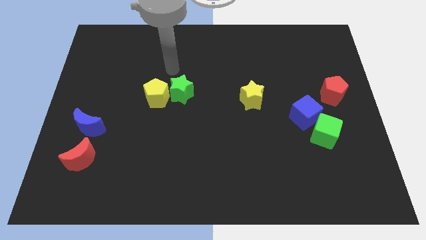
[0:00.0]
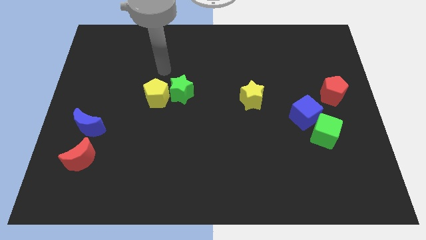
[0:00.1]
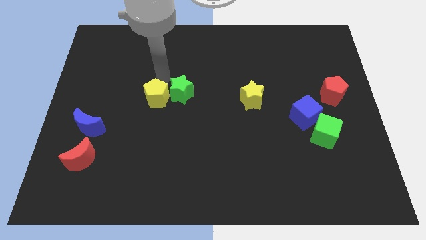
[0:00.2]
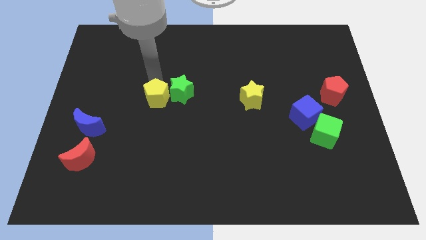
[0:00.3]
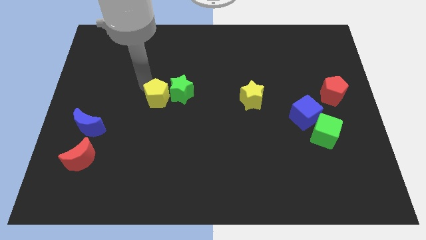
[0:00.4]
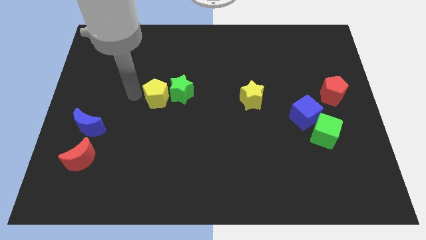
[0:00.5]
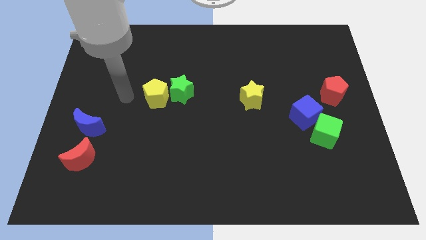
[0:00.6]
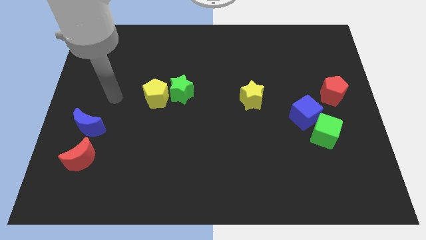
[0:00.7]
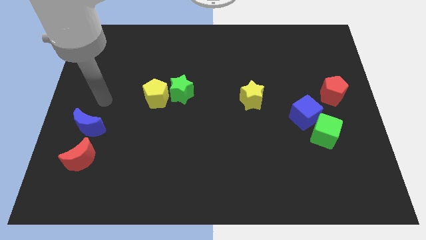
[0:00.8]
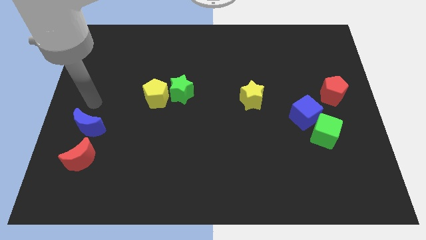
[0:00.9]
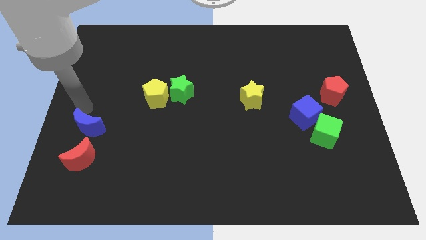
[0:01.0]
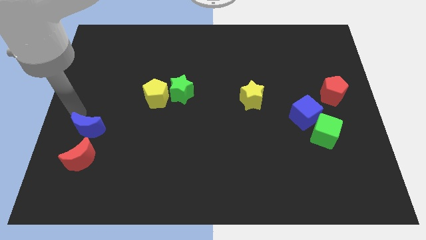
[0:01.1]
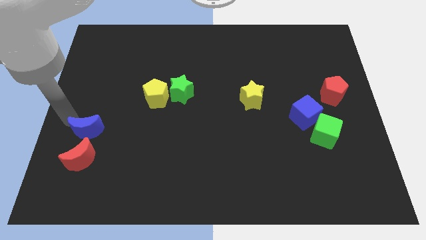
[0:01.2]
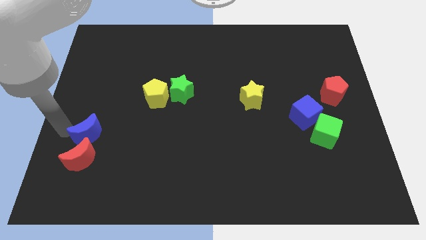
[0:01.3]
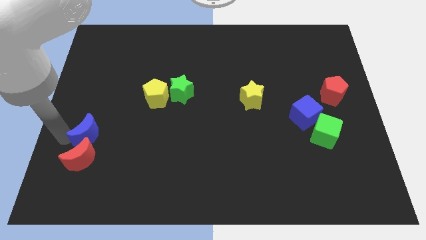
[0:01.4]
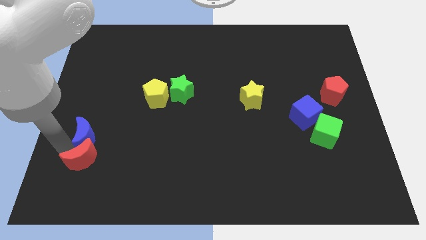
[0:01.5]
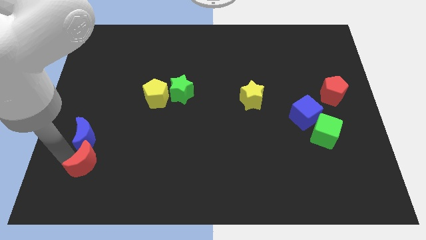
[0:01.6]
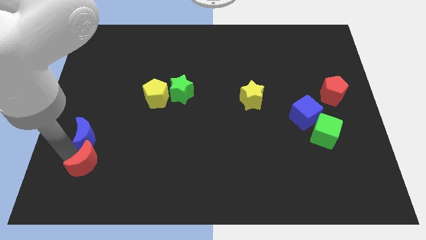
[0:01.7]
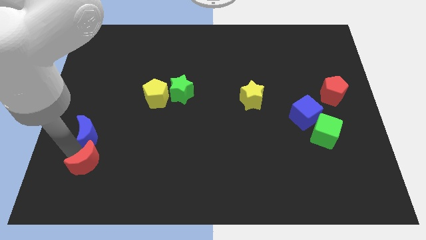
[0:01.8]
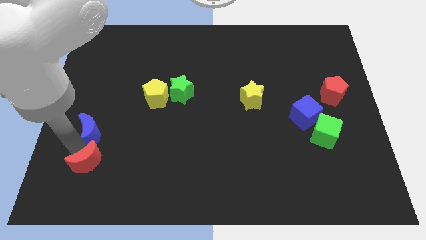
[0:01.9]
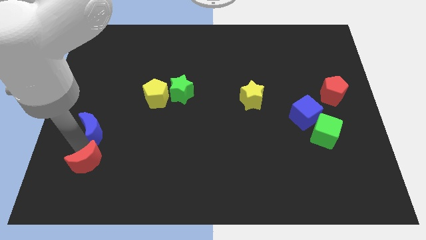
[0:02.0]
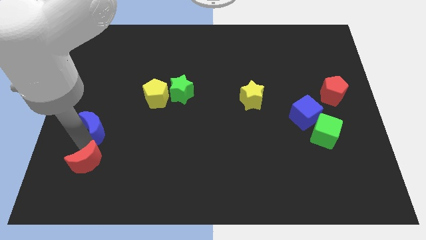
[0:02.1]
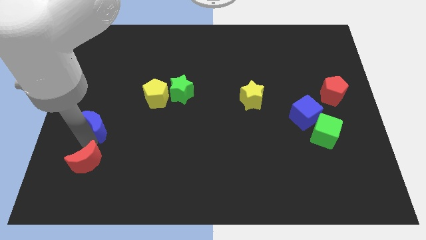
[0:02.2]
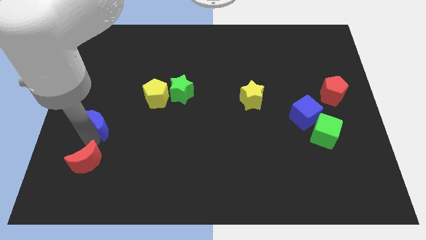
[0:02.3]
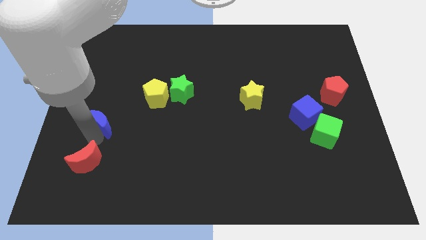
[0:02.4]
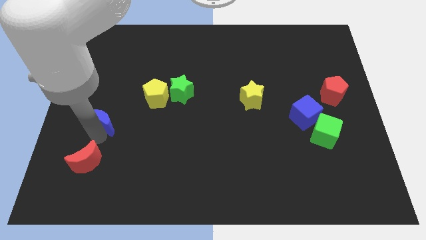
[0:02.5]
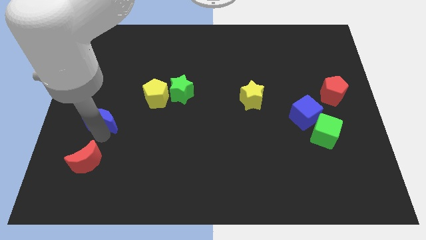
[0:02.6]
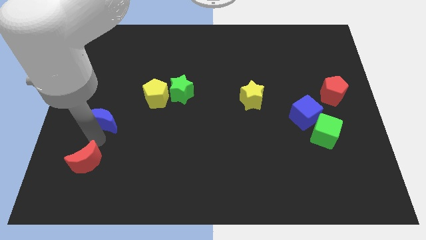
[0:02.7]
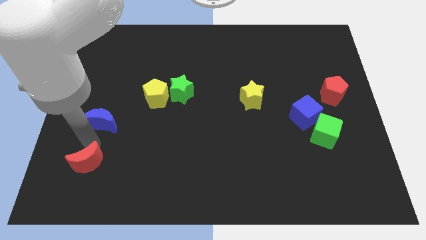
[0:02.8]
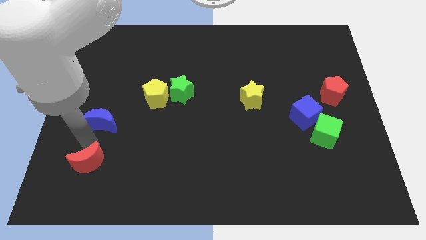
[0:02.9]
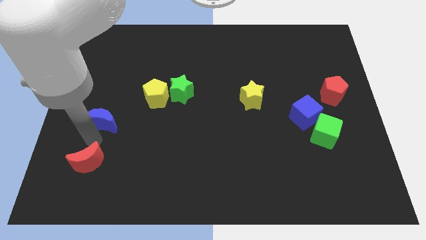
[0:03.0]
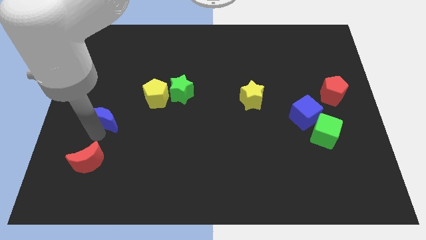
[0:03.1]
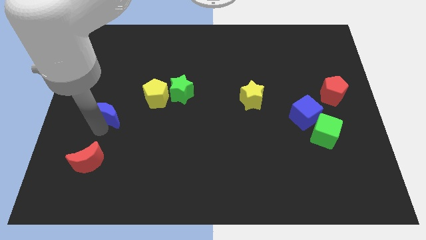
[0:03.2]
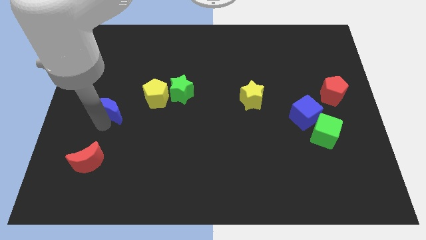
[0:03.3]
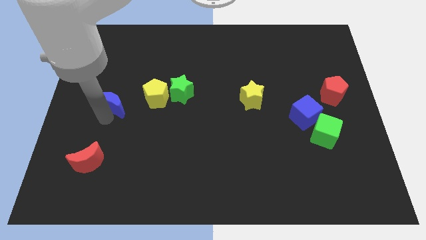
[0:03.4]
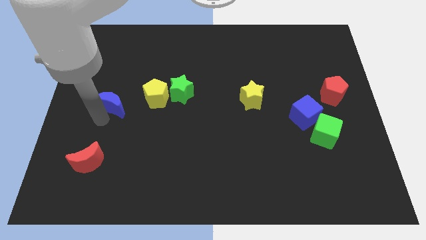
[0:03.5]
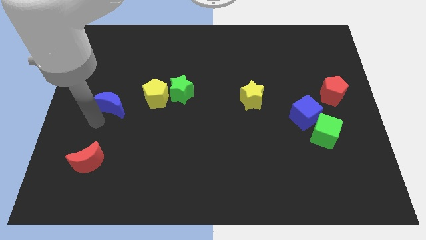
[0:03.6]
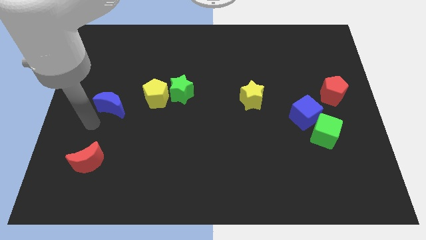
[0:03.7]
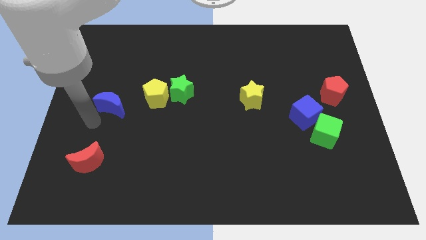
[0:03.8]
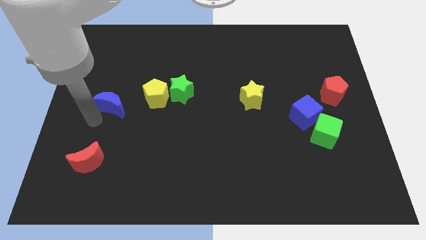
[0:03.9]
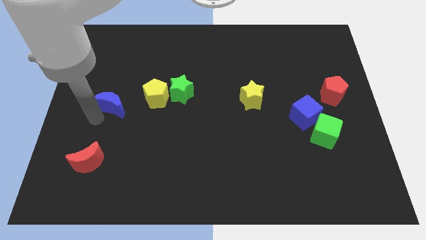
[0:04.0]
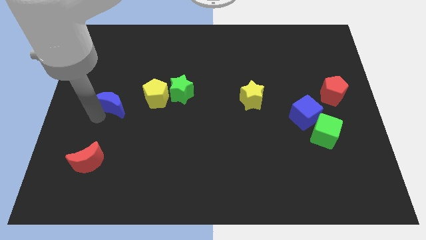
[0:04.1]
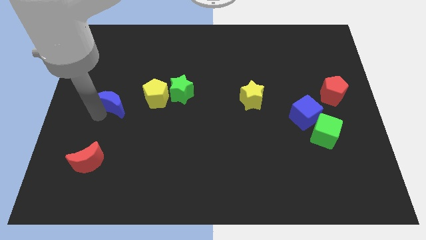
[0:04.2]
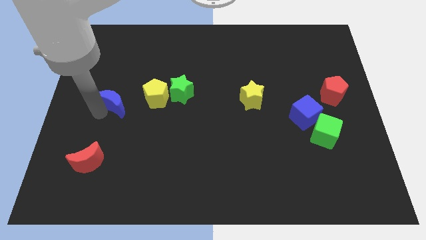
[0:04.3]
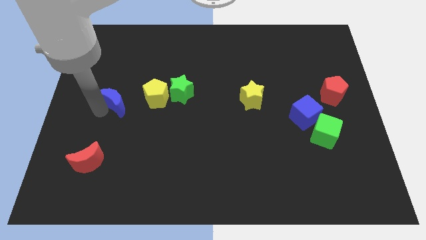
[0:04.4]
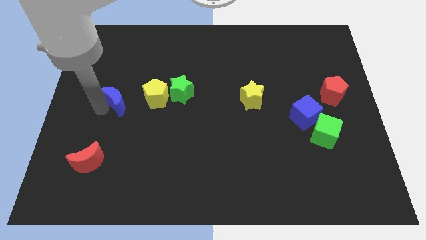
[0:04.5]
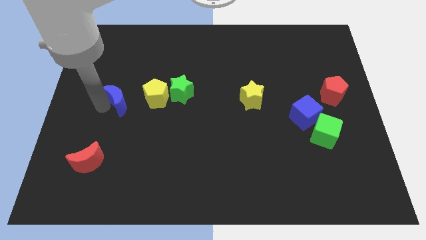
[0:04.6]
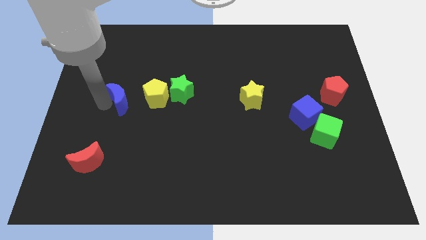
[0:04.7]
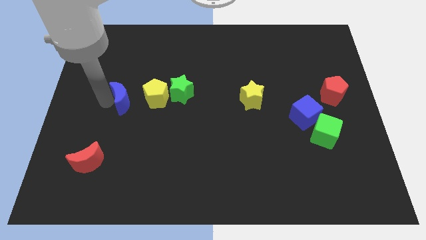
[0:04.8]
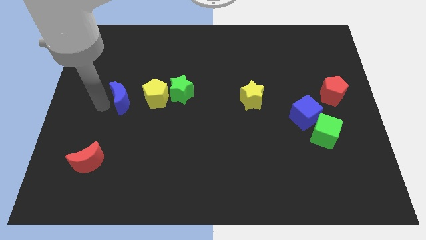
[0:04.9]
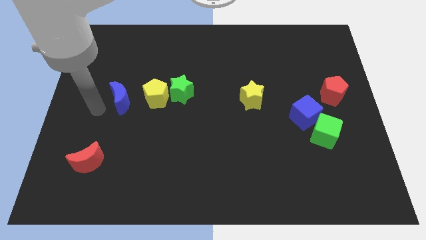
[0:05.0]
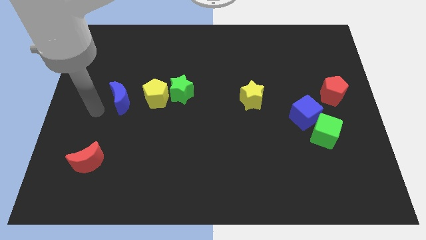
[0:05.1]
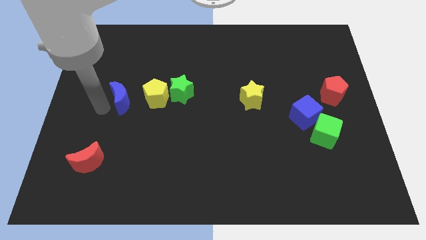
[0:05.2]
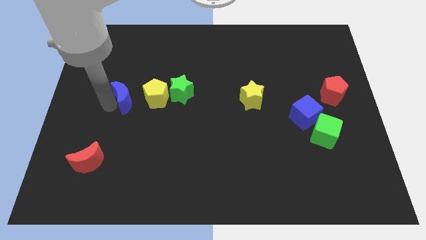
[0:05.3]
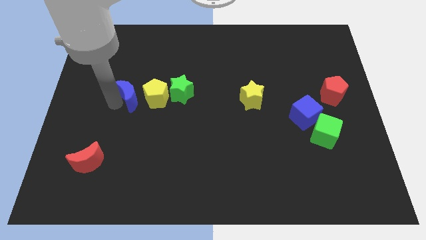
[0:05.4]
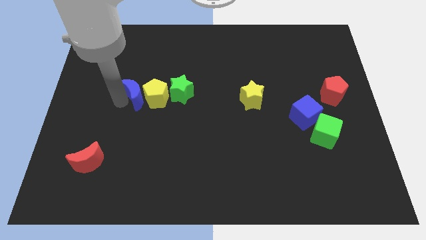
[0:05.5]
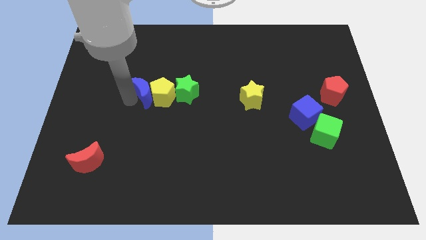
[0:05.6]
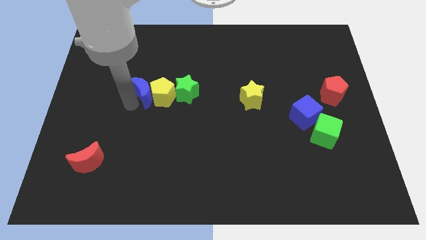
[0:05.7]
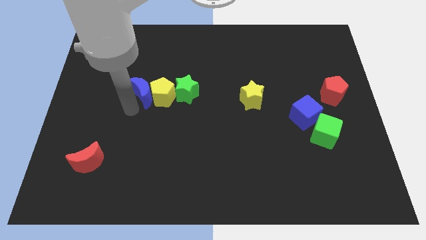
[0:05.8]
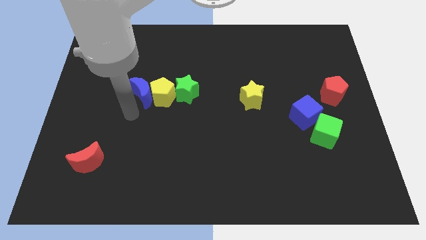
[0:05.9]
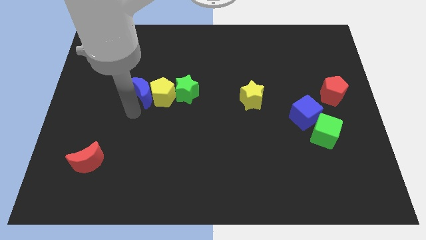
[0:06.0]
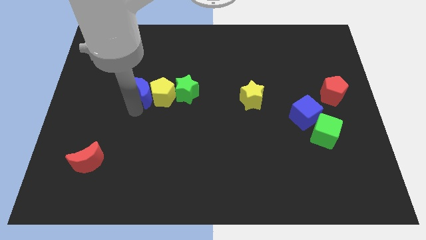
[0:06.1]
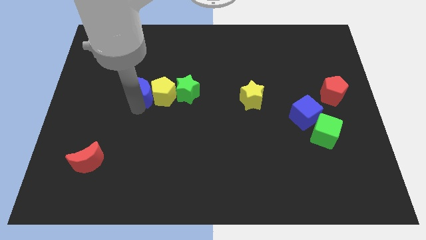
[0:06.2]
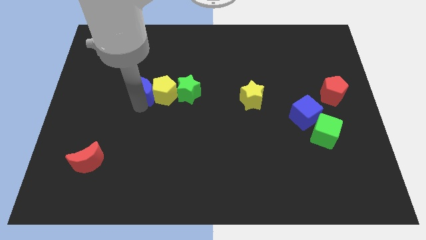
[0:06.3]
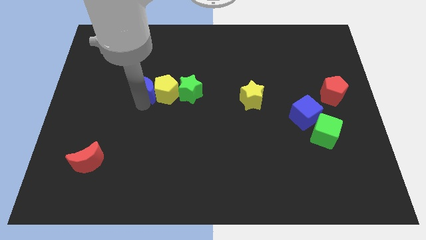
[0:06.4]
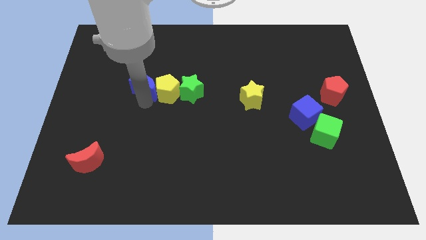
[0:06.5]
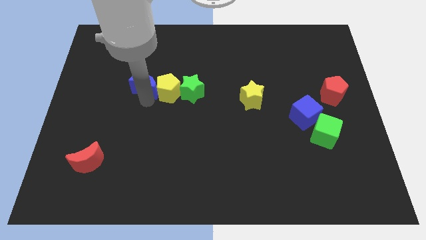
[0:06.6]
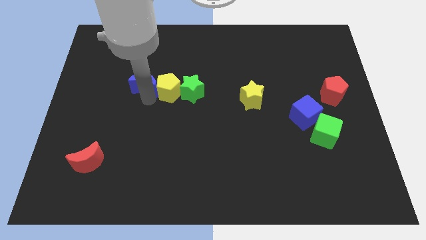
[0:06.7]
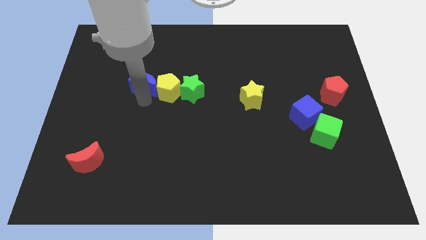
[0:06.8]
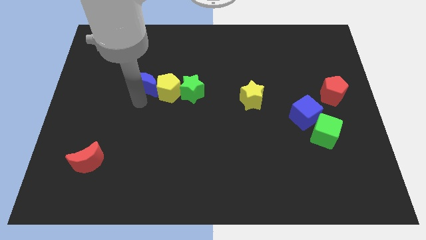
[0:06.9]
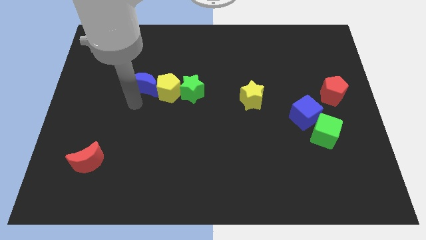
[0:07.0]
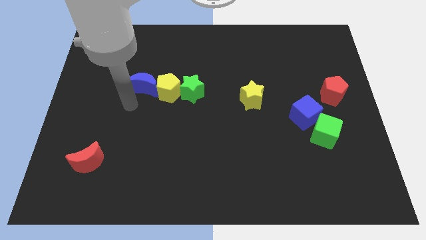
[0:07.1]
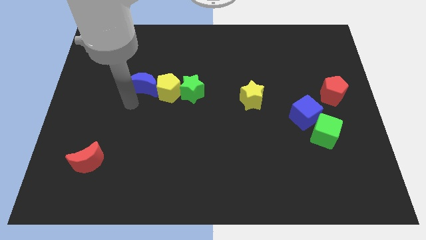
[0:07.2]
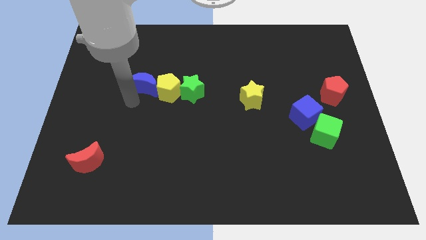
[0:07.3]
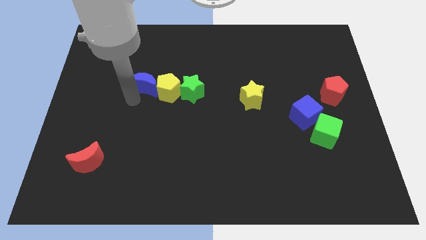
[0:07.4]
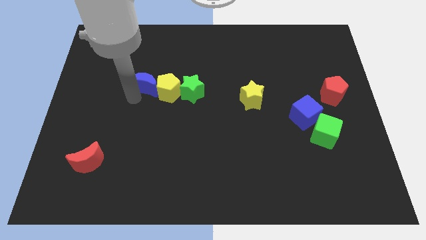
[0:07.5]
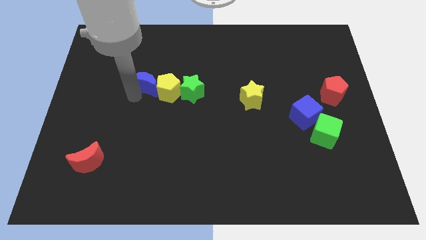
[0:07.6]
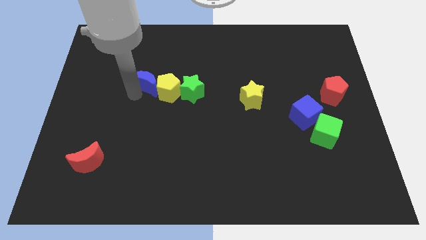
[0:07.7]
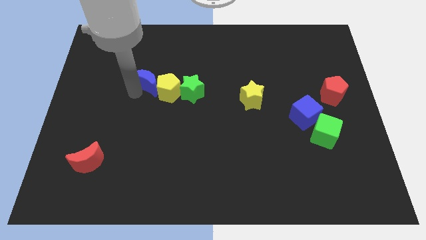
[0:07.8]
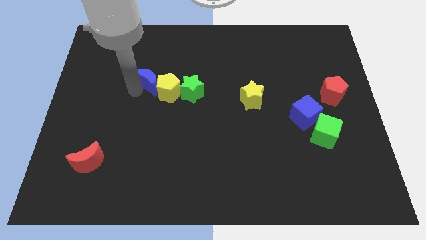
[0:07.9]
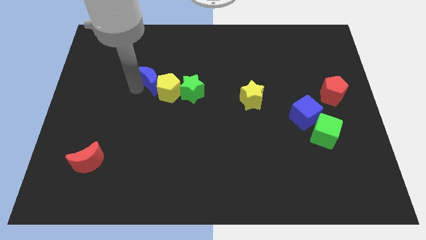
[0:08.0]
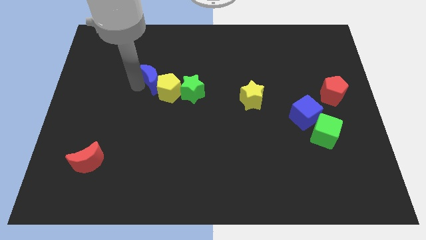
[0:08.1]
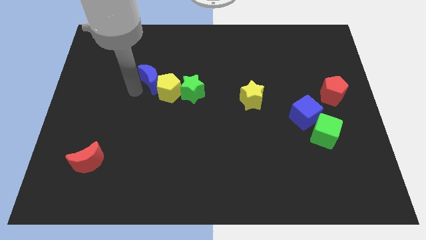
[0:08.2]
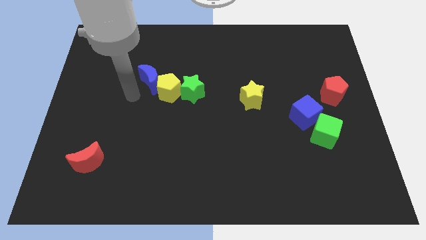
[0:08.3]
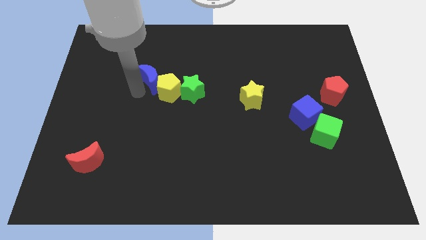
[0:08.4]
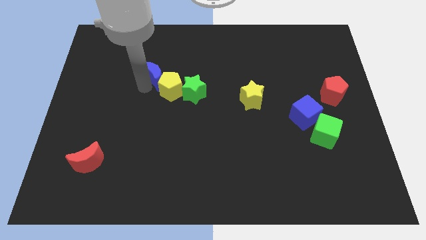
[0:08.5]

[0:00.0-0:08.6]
move the blue moon upwards and right diagonally
